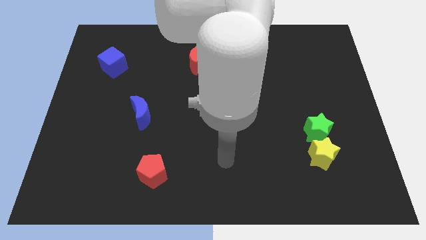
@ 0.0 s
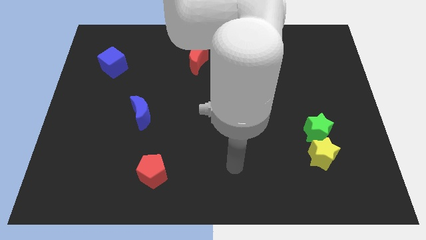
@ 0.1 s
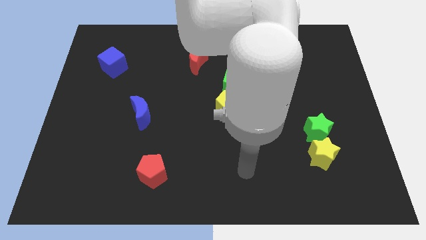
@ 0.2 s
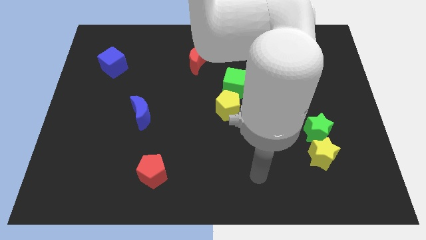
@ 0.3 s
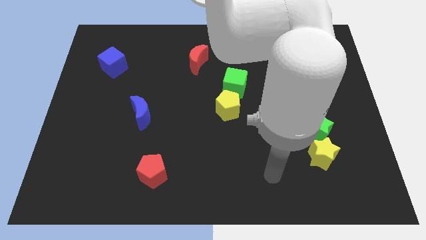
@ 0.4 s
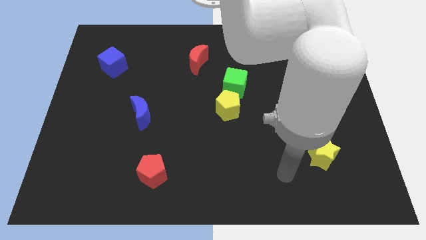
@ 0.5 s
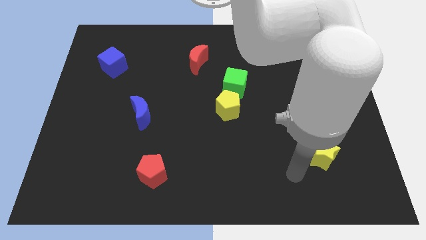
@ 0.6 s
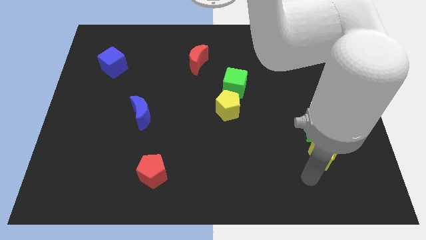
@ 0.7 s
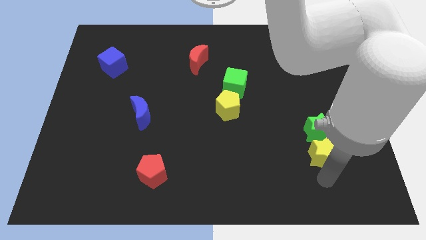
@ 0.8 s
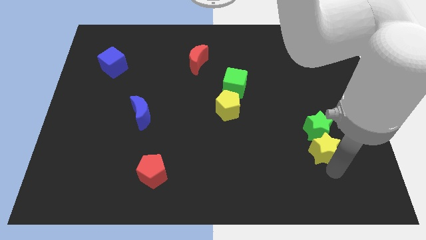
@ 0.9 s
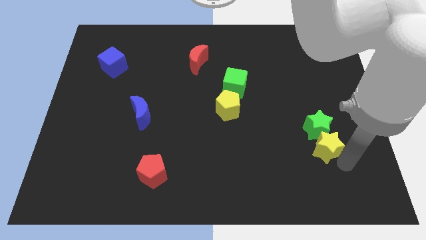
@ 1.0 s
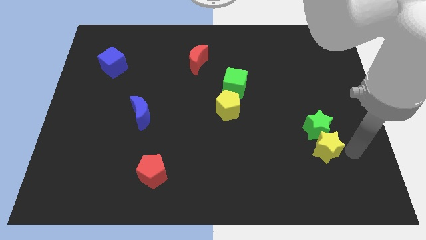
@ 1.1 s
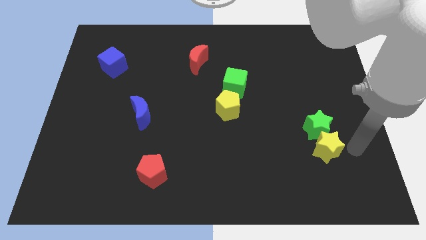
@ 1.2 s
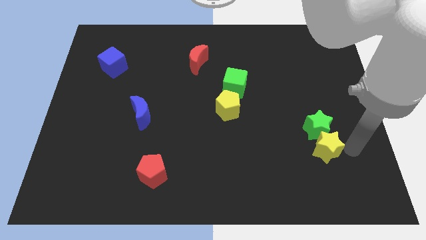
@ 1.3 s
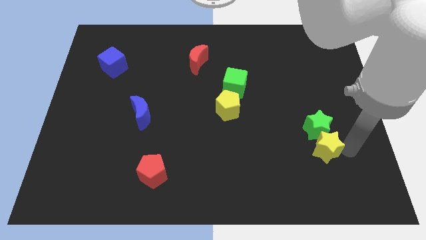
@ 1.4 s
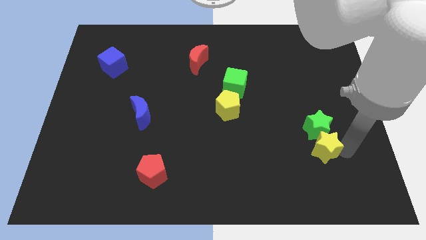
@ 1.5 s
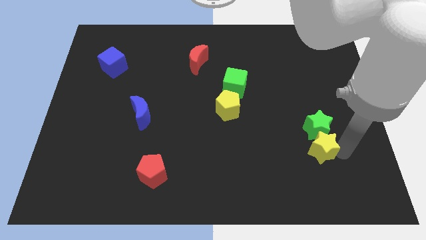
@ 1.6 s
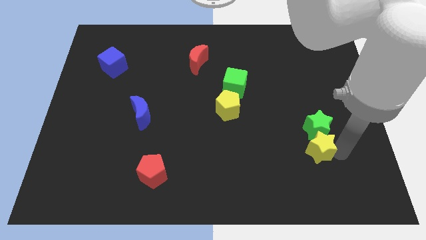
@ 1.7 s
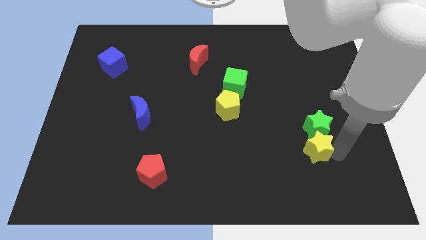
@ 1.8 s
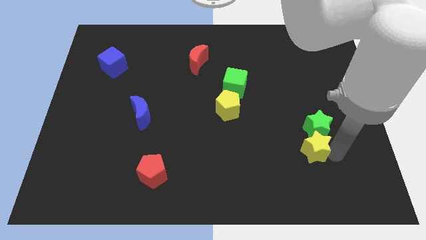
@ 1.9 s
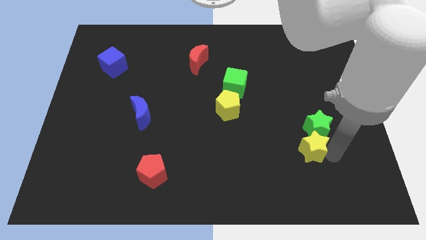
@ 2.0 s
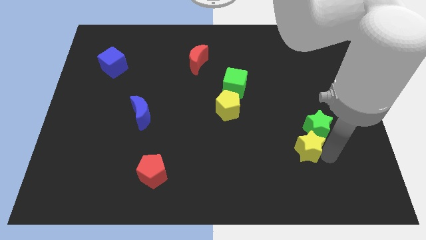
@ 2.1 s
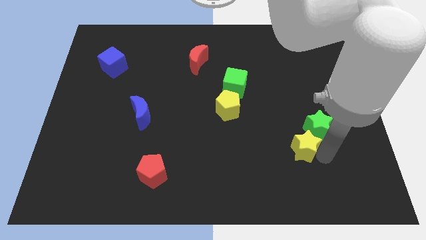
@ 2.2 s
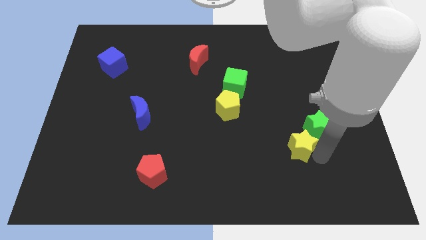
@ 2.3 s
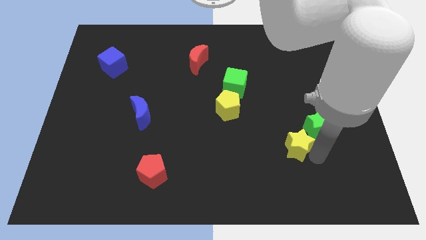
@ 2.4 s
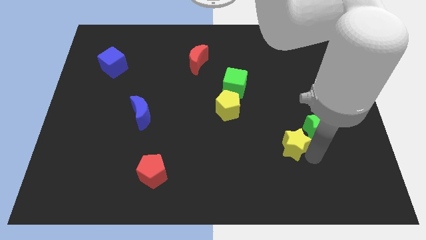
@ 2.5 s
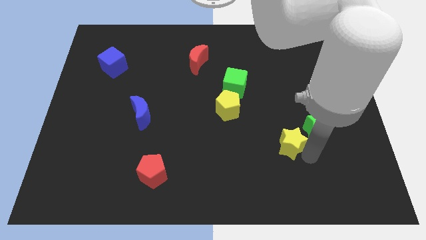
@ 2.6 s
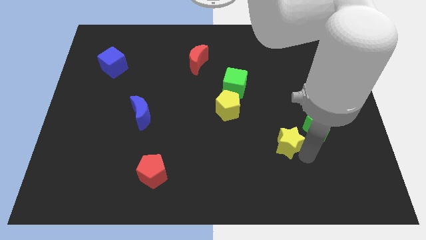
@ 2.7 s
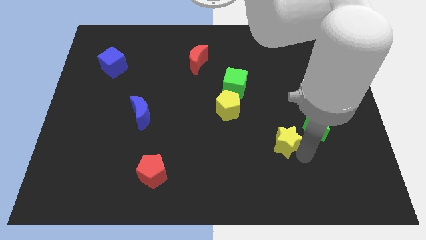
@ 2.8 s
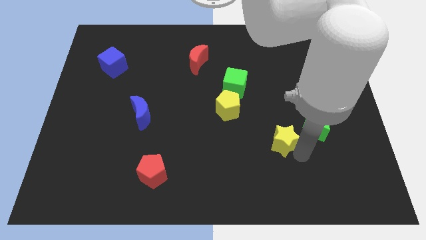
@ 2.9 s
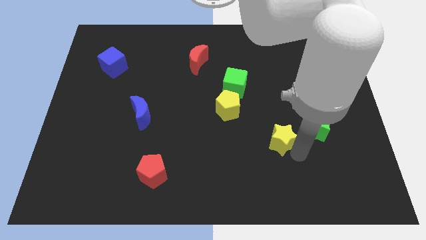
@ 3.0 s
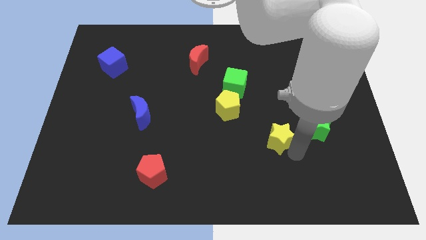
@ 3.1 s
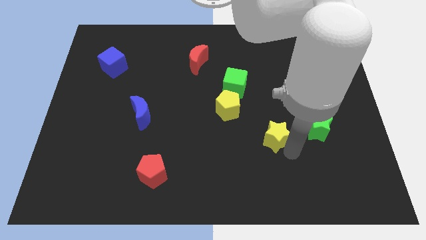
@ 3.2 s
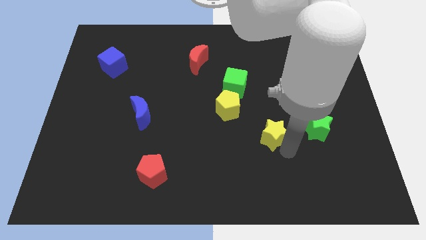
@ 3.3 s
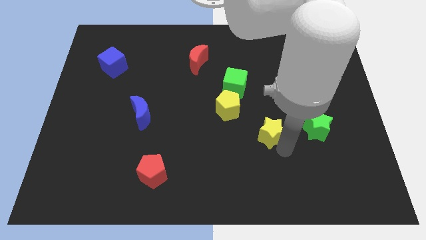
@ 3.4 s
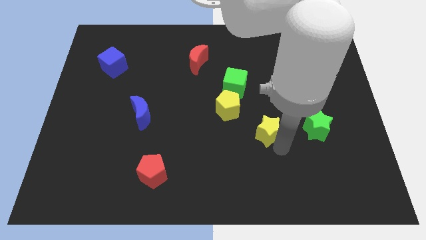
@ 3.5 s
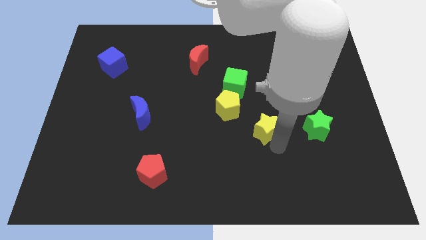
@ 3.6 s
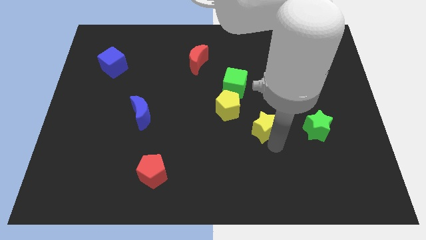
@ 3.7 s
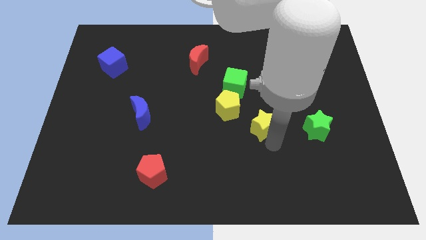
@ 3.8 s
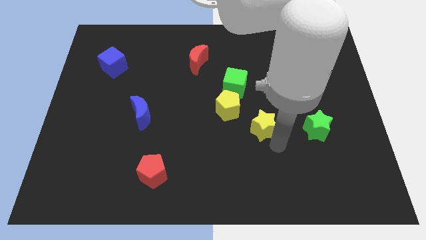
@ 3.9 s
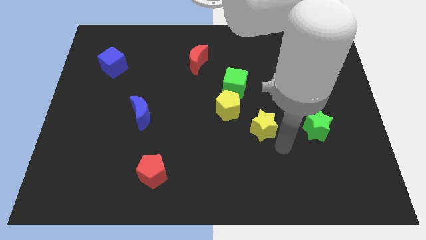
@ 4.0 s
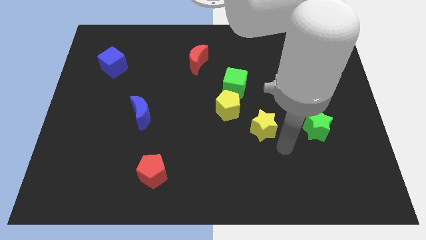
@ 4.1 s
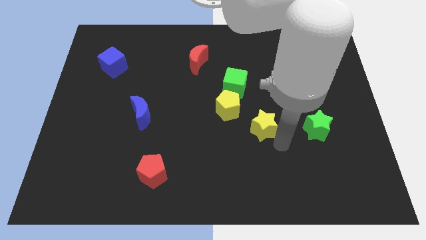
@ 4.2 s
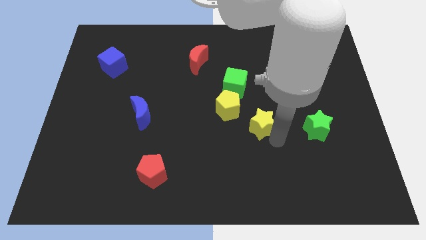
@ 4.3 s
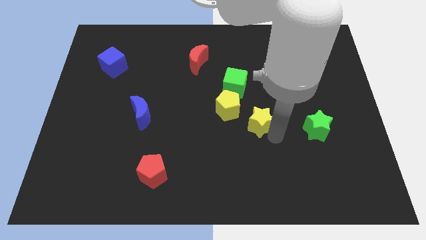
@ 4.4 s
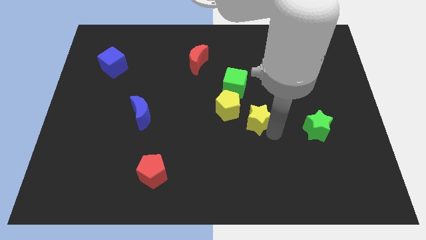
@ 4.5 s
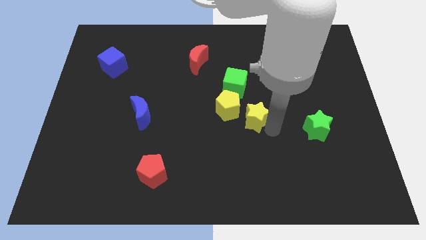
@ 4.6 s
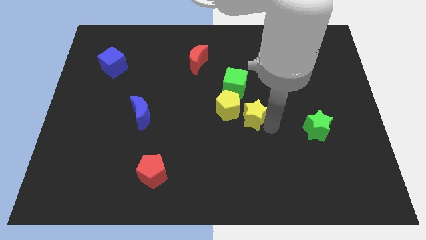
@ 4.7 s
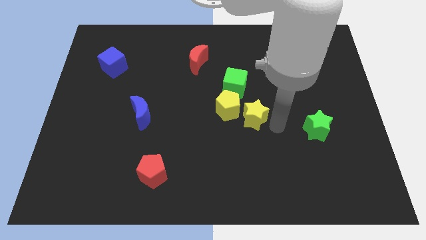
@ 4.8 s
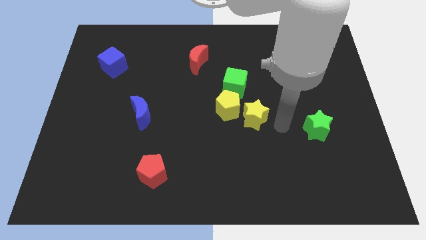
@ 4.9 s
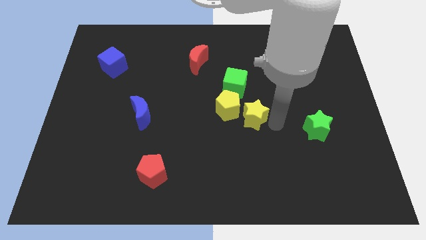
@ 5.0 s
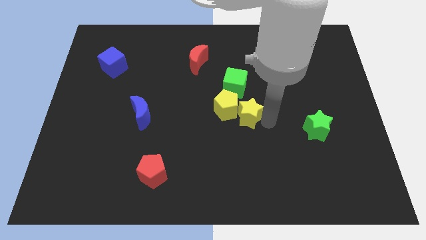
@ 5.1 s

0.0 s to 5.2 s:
slide the yellow star next to the yellow pentagon

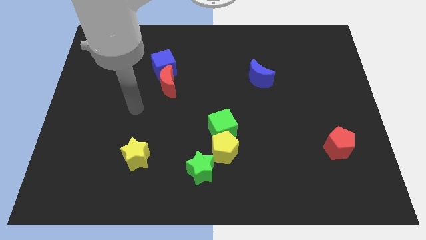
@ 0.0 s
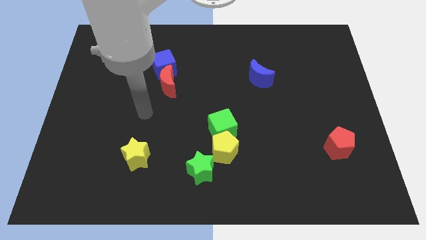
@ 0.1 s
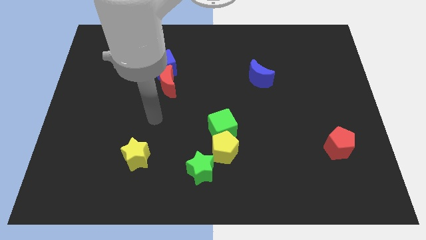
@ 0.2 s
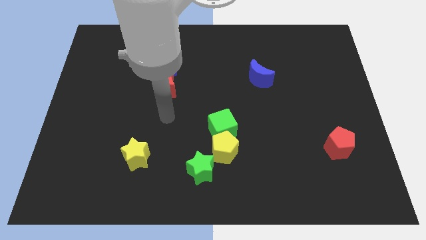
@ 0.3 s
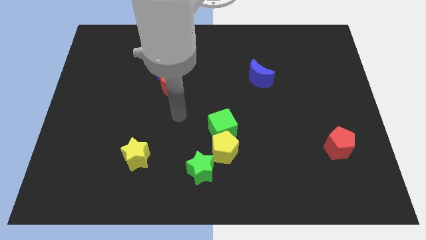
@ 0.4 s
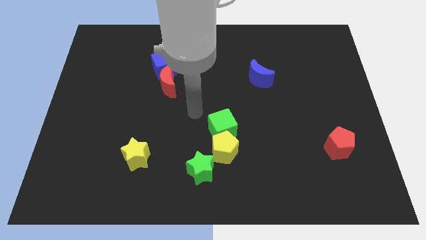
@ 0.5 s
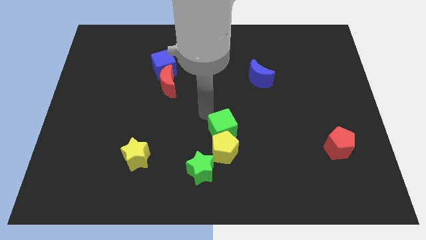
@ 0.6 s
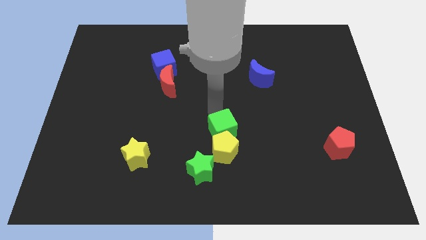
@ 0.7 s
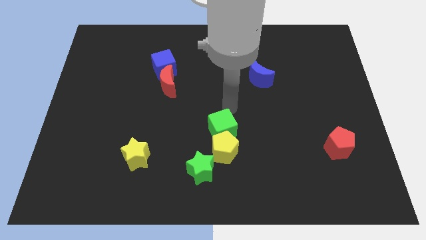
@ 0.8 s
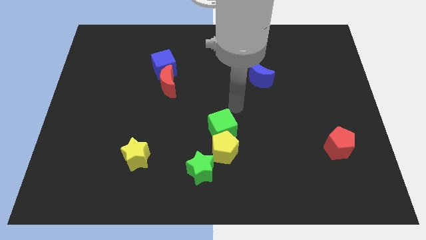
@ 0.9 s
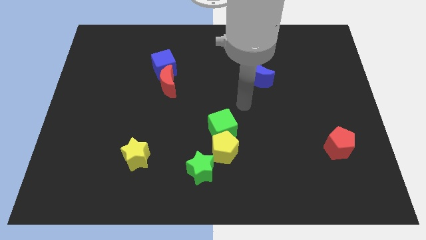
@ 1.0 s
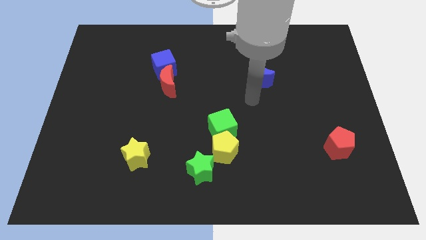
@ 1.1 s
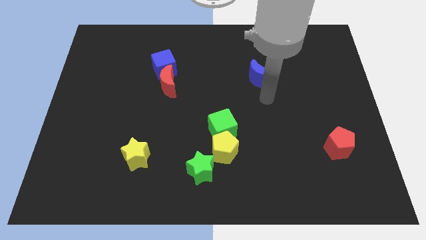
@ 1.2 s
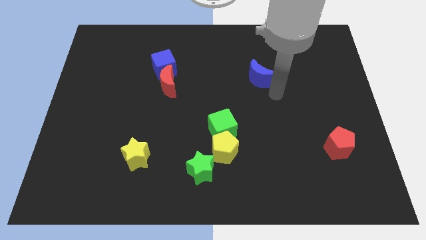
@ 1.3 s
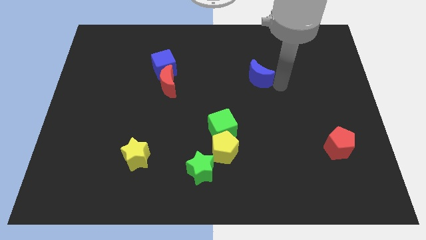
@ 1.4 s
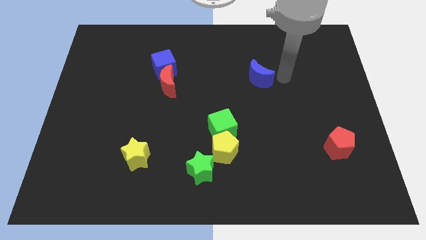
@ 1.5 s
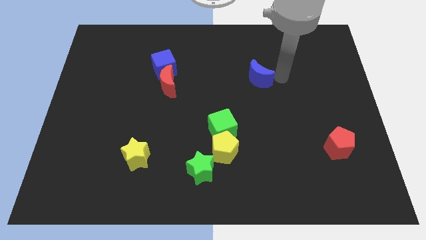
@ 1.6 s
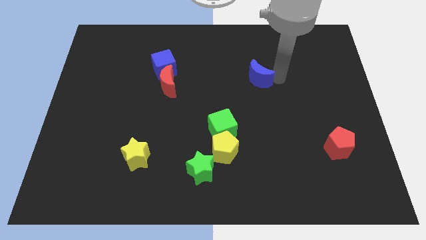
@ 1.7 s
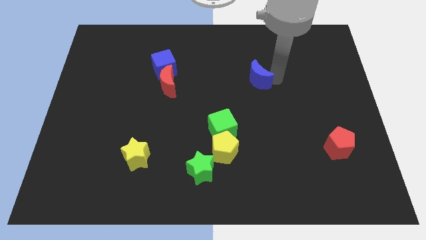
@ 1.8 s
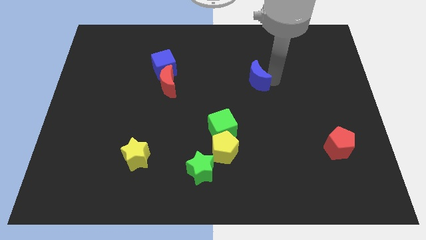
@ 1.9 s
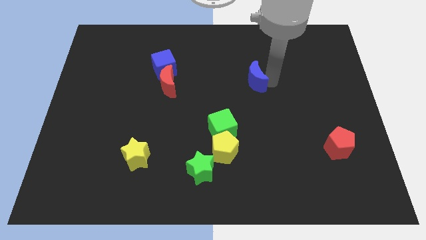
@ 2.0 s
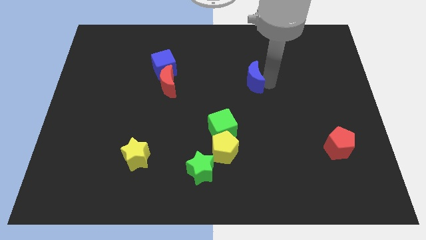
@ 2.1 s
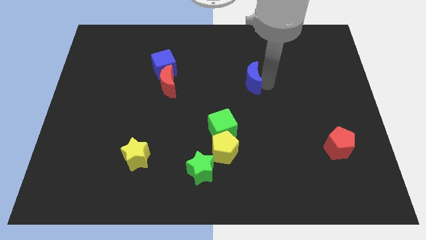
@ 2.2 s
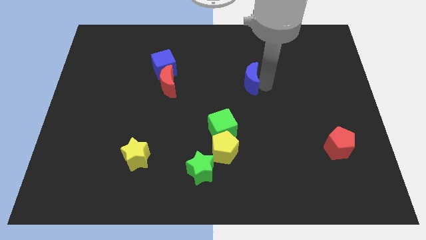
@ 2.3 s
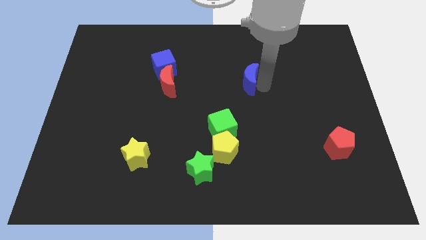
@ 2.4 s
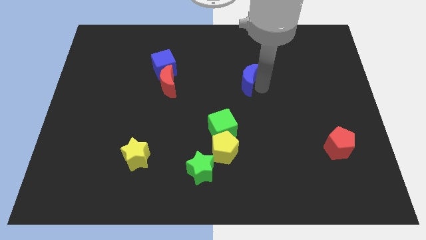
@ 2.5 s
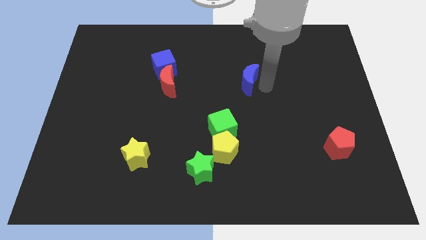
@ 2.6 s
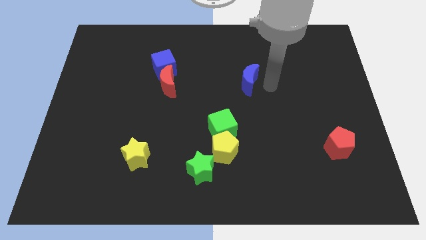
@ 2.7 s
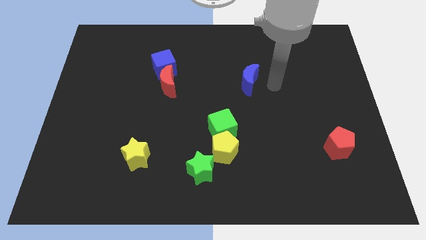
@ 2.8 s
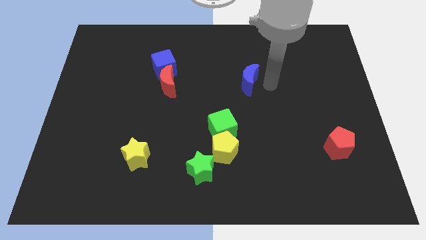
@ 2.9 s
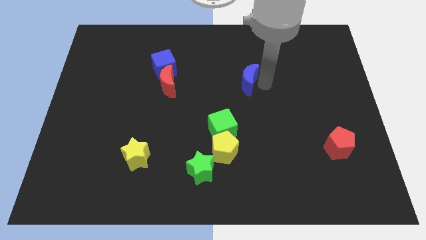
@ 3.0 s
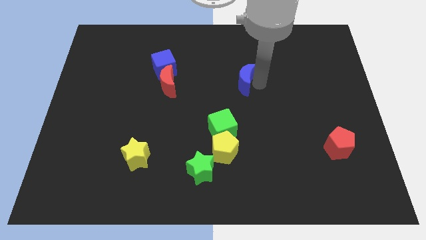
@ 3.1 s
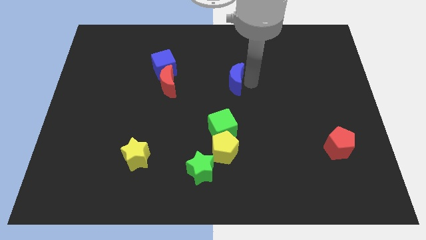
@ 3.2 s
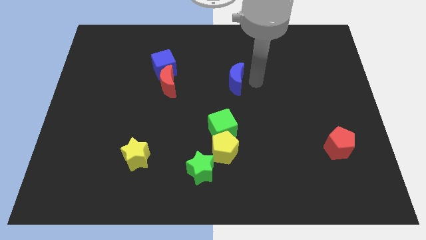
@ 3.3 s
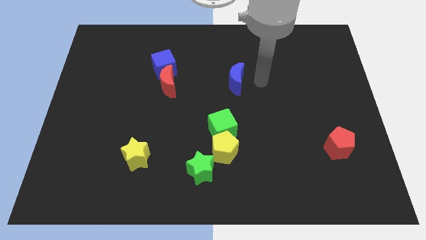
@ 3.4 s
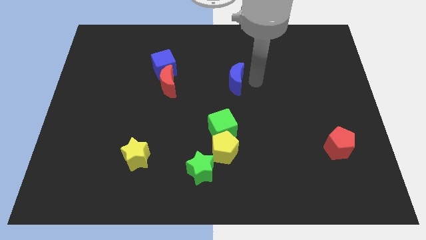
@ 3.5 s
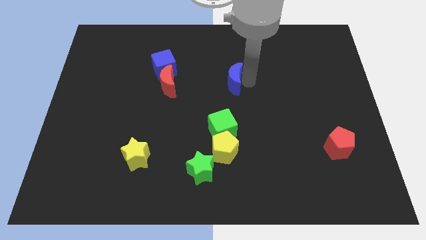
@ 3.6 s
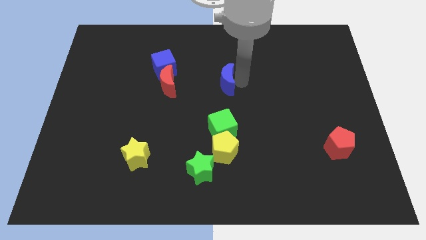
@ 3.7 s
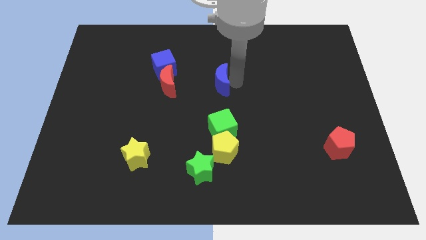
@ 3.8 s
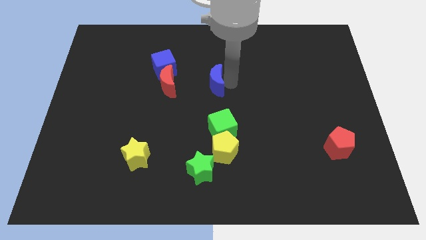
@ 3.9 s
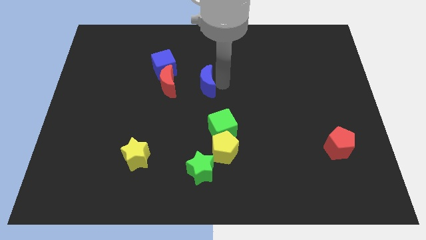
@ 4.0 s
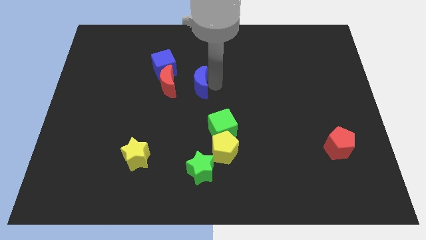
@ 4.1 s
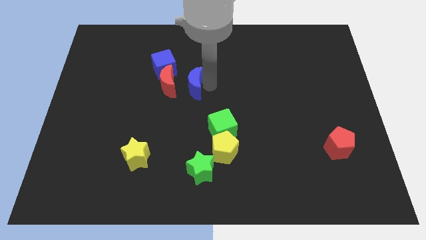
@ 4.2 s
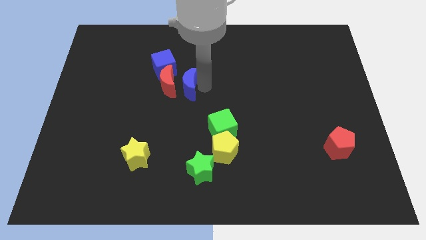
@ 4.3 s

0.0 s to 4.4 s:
move the blue moon next to the red moon
